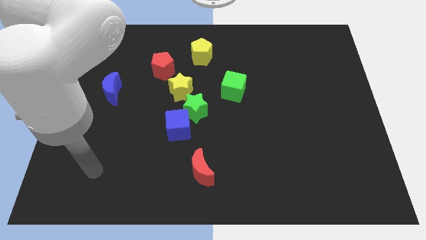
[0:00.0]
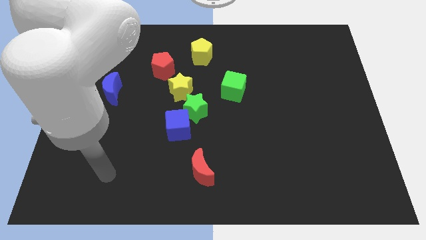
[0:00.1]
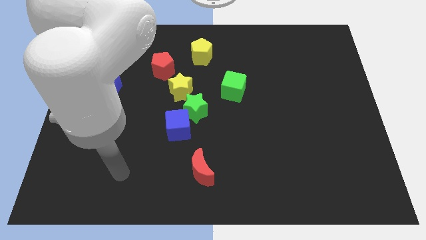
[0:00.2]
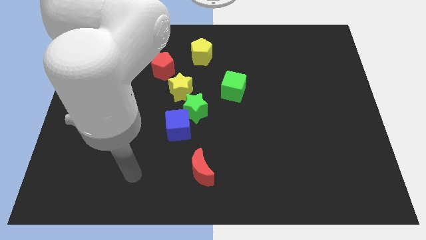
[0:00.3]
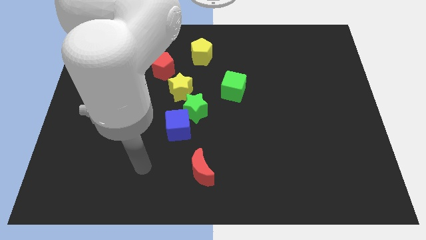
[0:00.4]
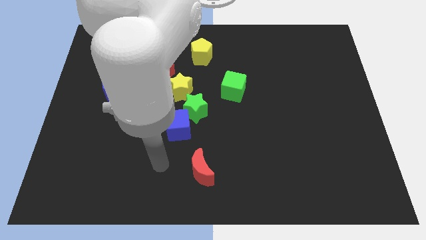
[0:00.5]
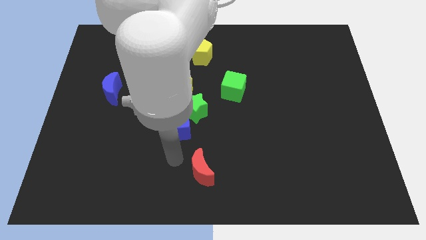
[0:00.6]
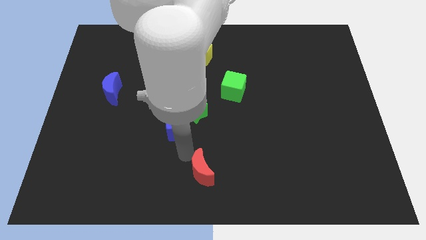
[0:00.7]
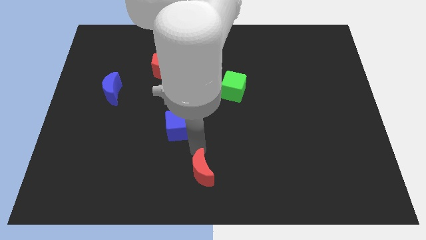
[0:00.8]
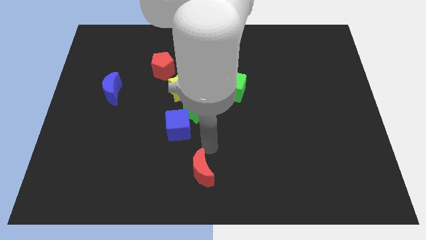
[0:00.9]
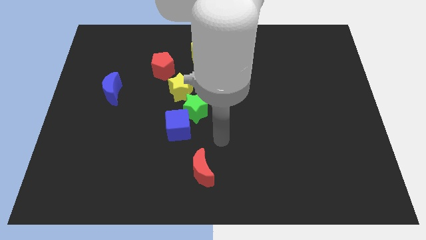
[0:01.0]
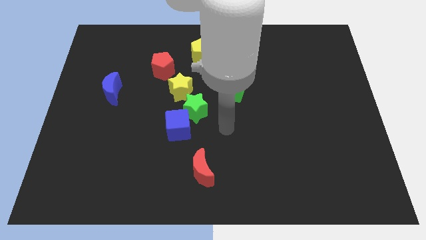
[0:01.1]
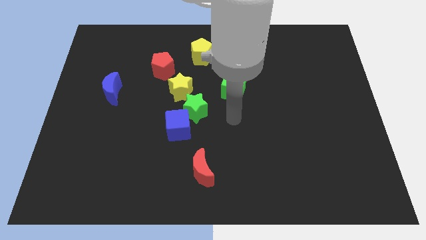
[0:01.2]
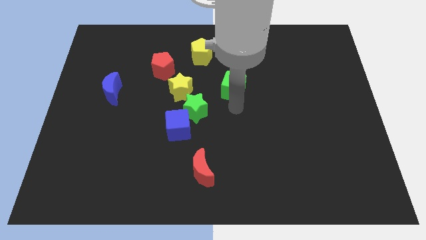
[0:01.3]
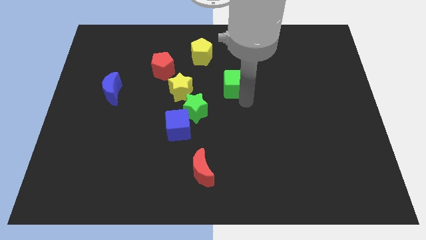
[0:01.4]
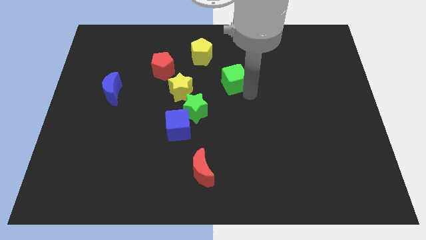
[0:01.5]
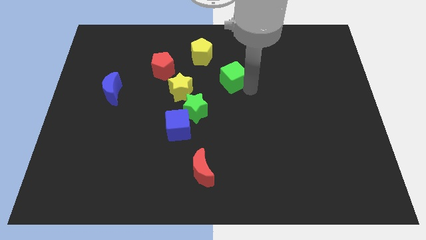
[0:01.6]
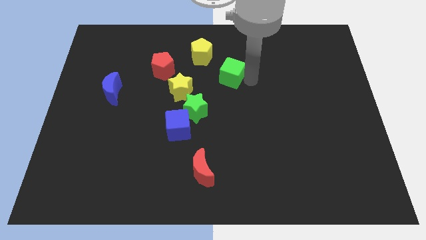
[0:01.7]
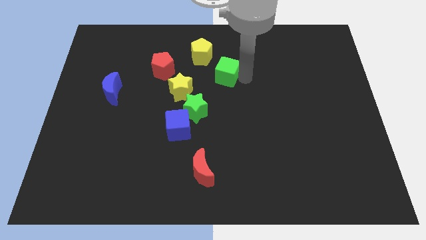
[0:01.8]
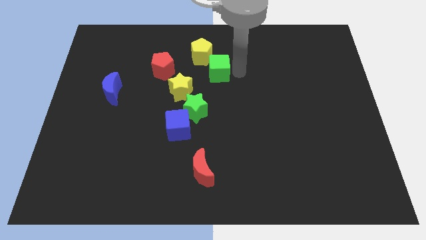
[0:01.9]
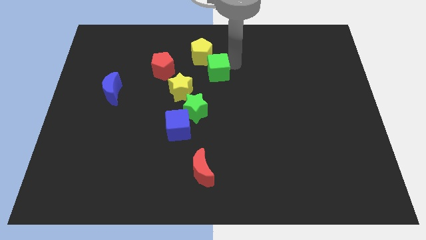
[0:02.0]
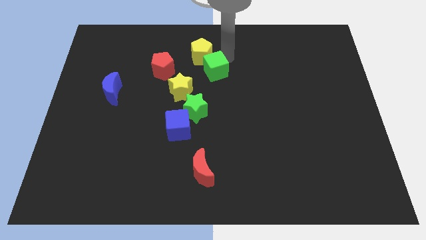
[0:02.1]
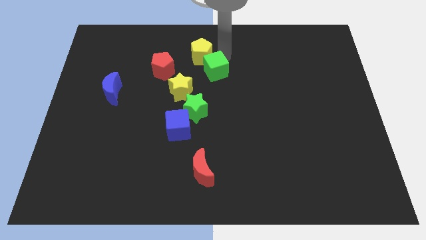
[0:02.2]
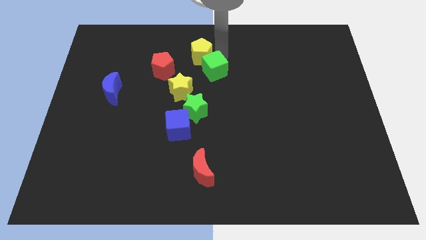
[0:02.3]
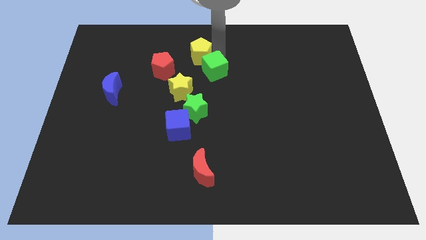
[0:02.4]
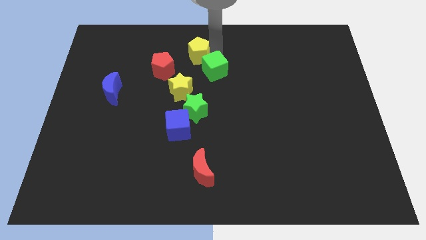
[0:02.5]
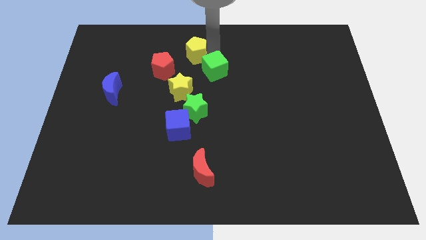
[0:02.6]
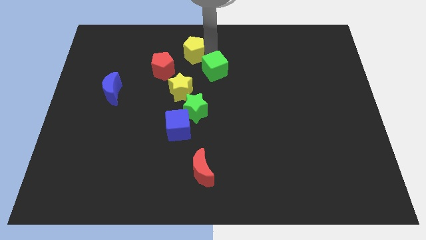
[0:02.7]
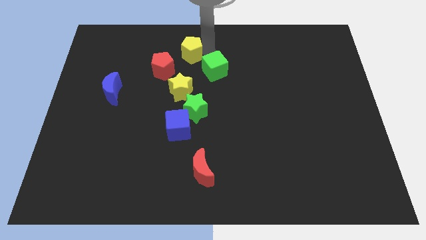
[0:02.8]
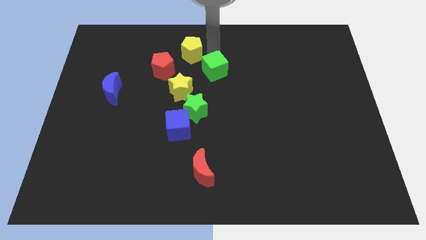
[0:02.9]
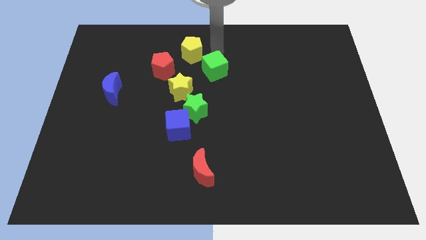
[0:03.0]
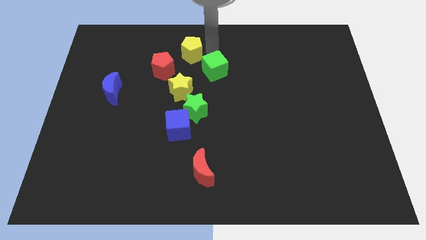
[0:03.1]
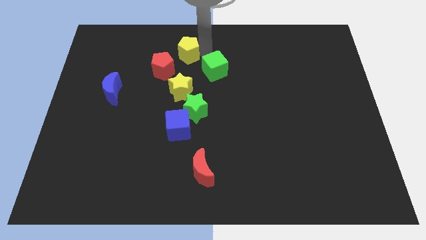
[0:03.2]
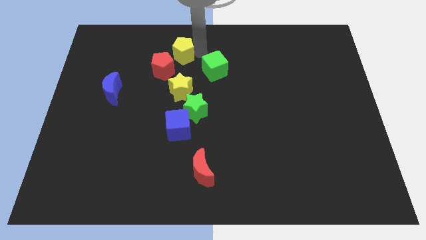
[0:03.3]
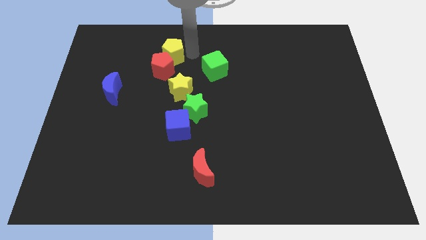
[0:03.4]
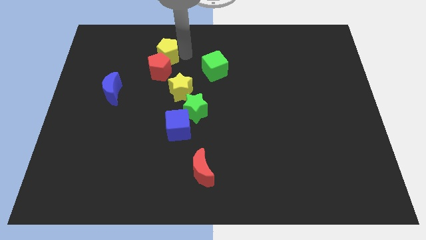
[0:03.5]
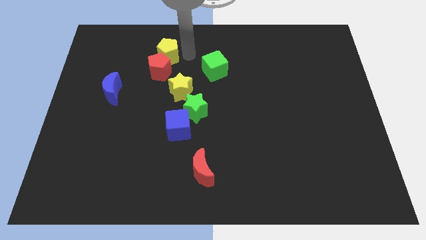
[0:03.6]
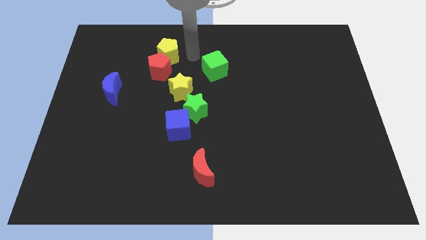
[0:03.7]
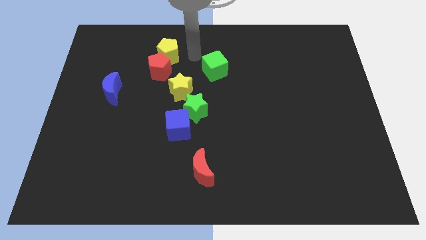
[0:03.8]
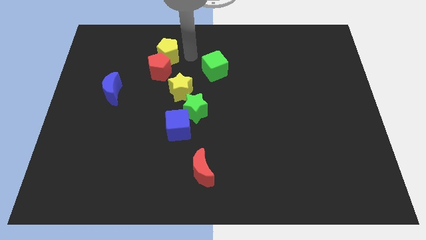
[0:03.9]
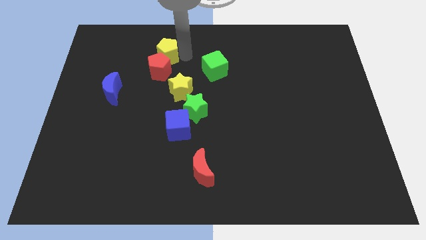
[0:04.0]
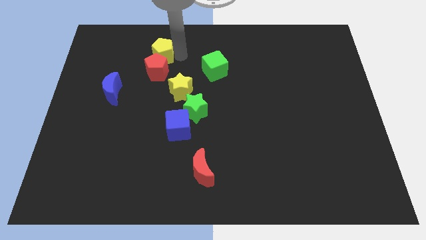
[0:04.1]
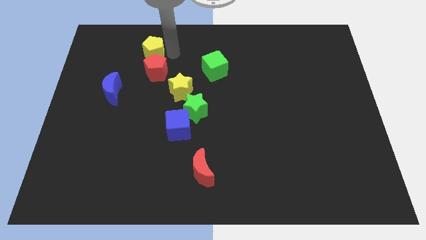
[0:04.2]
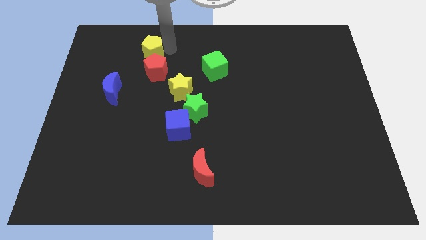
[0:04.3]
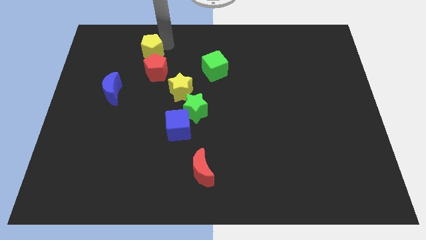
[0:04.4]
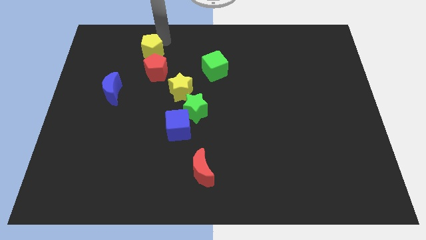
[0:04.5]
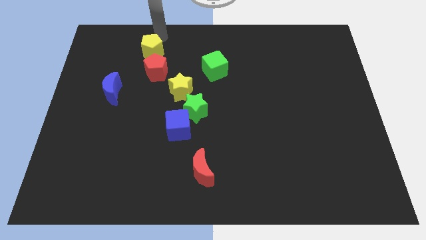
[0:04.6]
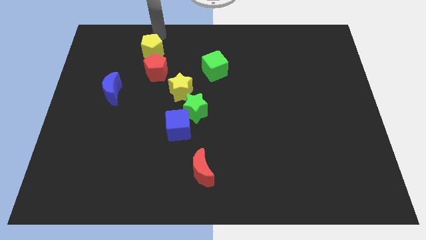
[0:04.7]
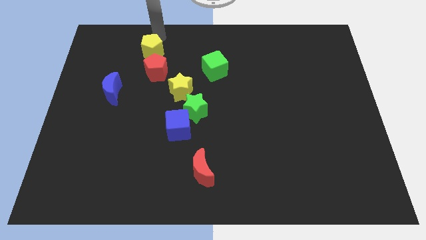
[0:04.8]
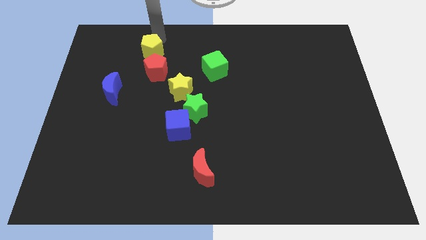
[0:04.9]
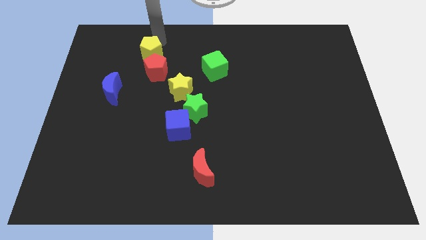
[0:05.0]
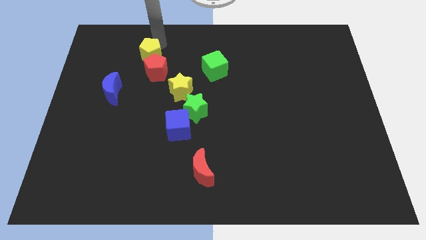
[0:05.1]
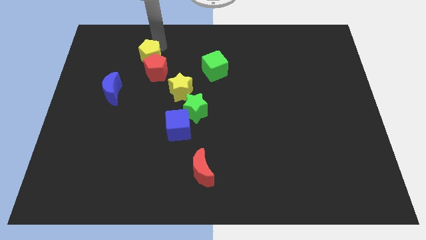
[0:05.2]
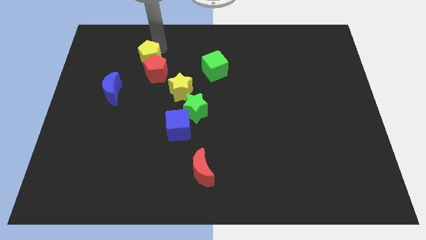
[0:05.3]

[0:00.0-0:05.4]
move the yellow pentagon down and then left somewhat

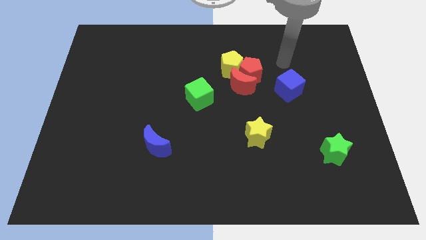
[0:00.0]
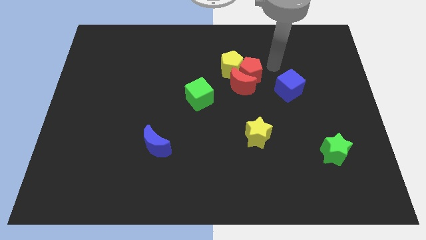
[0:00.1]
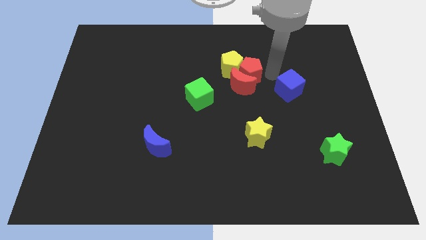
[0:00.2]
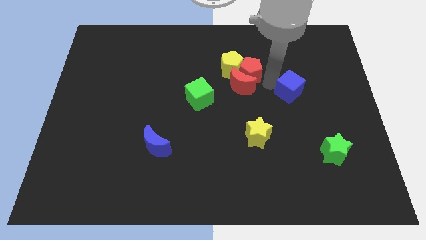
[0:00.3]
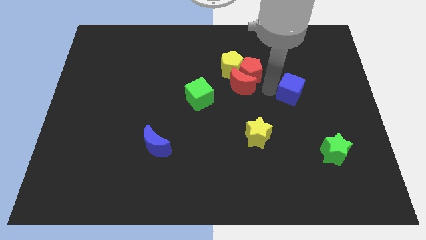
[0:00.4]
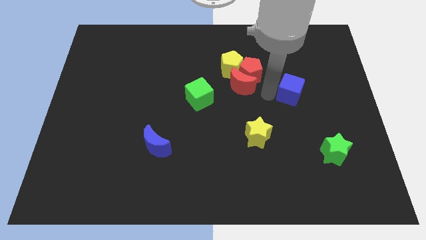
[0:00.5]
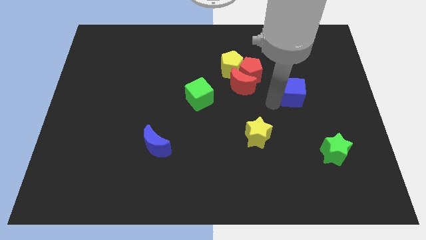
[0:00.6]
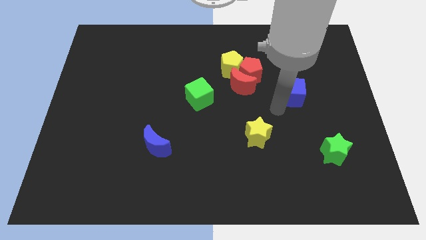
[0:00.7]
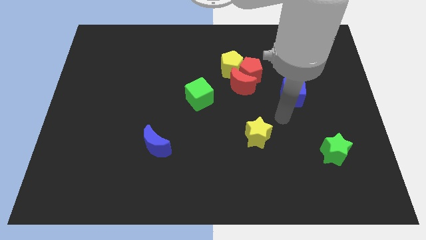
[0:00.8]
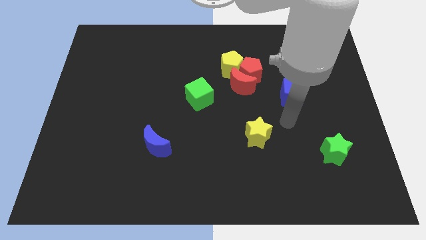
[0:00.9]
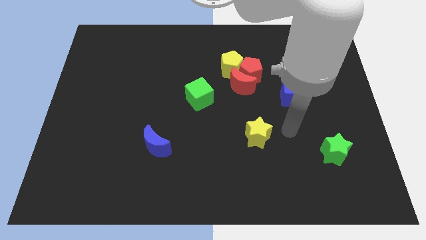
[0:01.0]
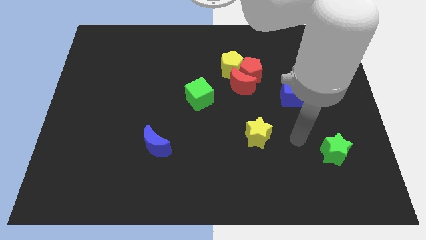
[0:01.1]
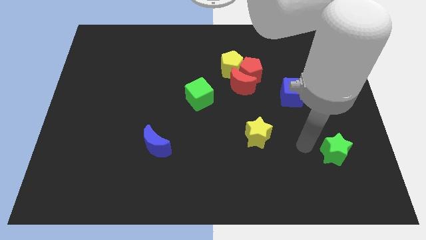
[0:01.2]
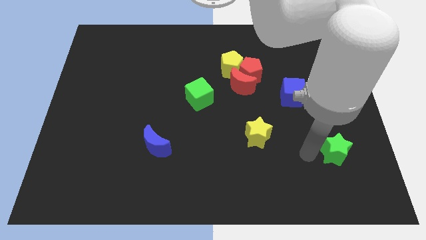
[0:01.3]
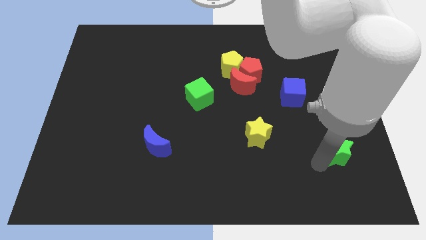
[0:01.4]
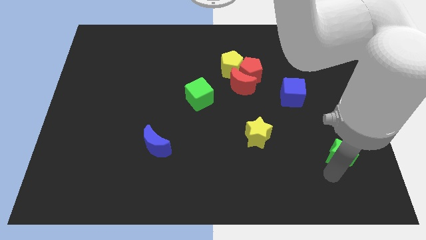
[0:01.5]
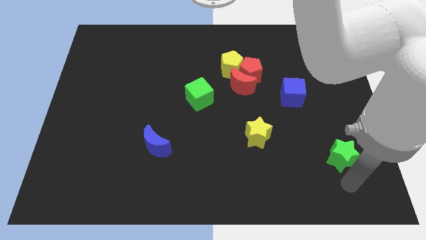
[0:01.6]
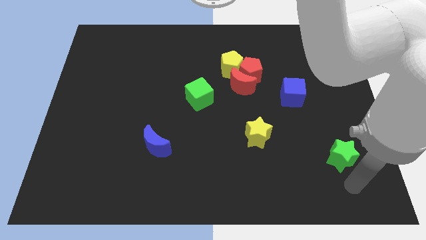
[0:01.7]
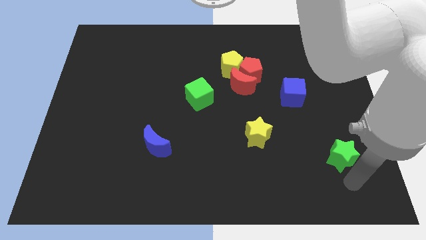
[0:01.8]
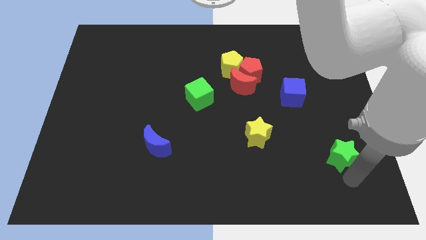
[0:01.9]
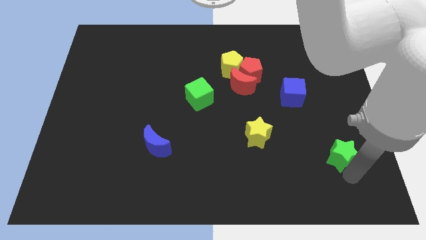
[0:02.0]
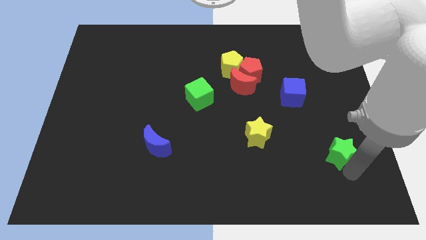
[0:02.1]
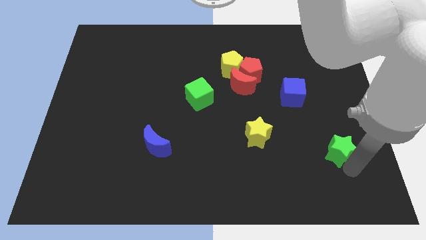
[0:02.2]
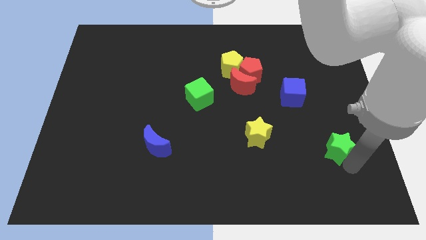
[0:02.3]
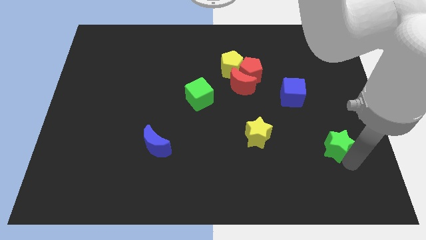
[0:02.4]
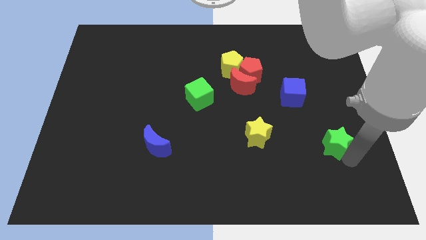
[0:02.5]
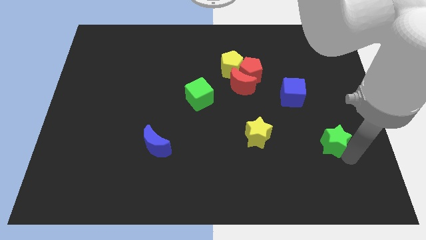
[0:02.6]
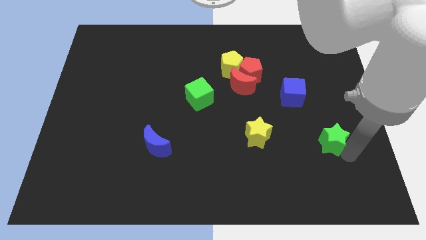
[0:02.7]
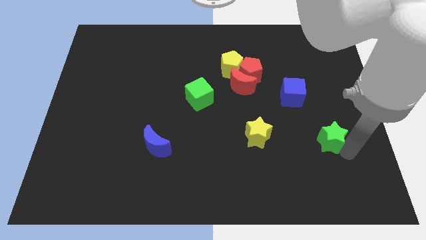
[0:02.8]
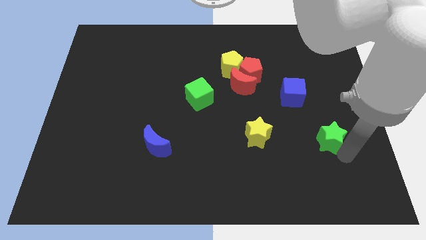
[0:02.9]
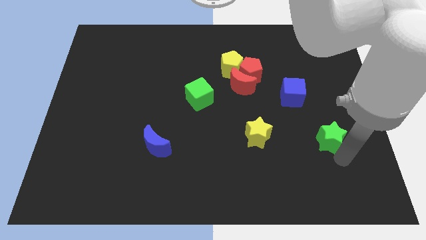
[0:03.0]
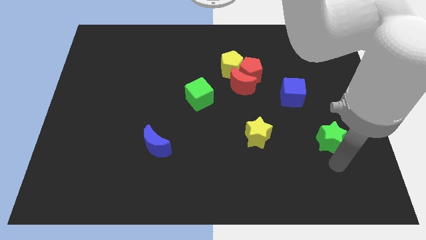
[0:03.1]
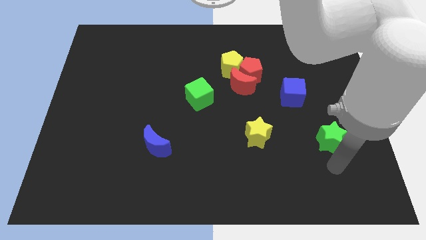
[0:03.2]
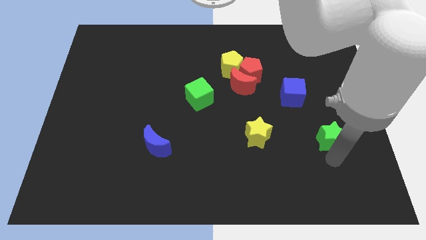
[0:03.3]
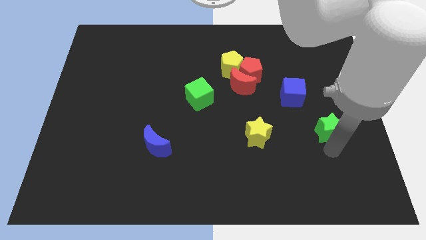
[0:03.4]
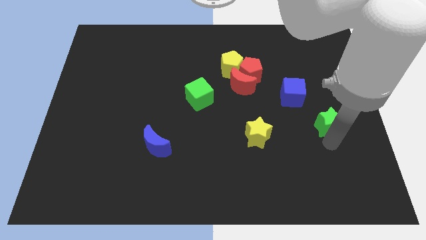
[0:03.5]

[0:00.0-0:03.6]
slightly move the green star upwards
